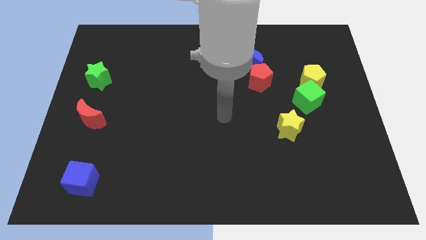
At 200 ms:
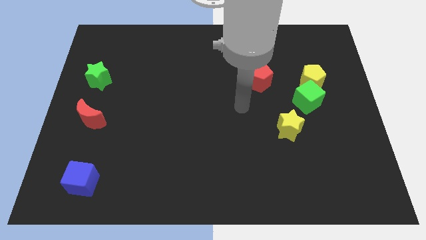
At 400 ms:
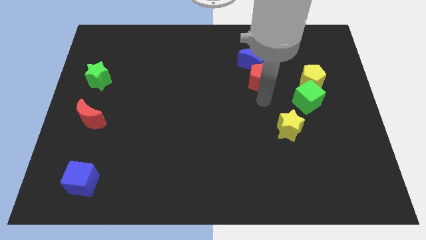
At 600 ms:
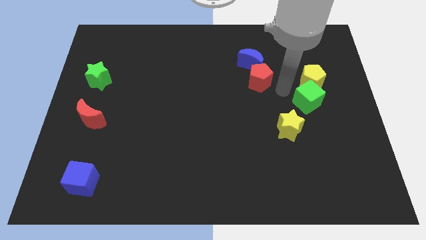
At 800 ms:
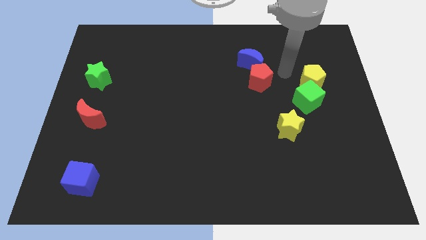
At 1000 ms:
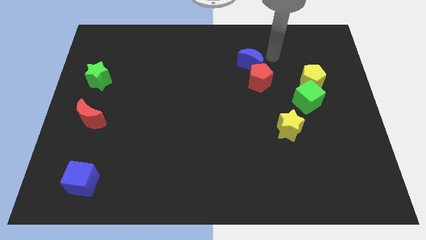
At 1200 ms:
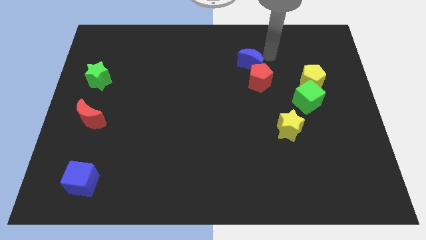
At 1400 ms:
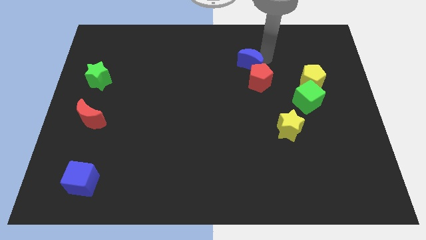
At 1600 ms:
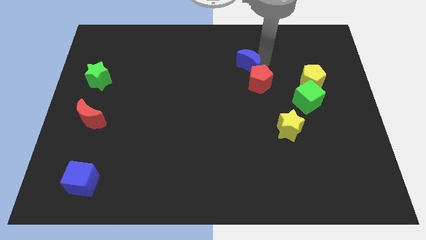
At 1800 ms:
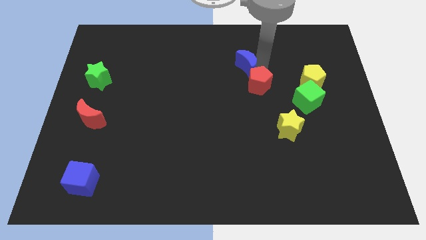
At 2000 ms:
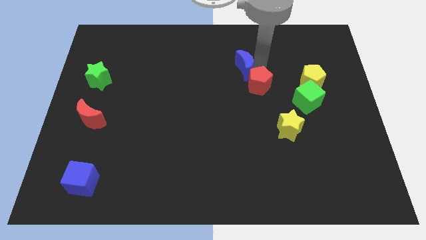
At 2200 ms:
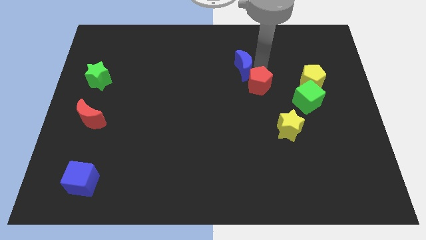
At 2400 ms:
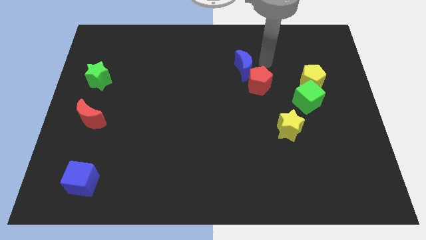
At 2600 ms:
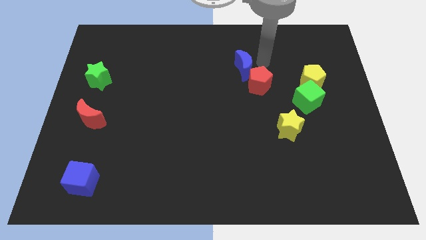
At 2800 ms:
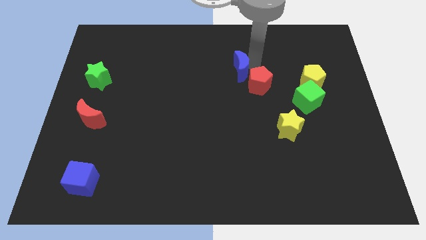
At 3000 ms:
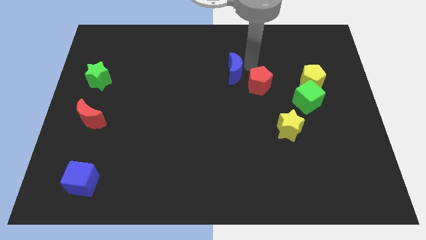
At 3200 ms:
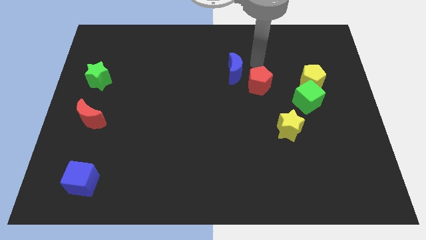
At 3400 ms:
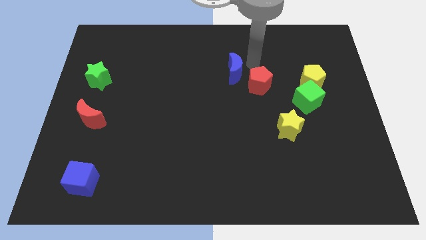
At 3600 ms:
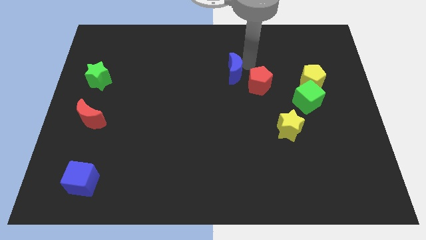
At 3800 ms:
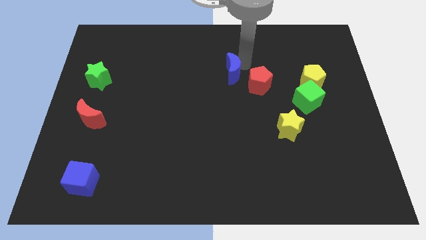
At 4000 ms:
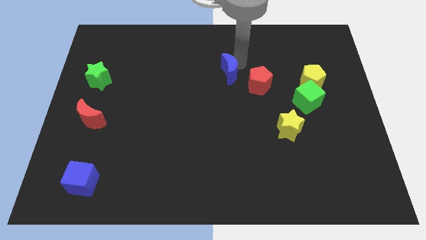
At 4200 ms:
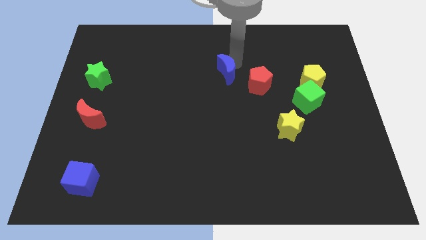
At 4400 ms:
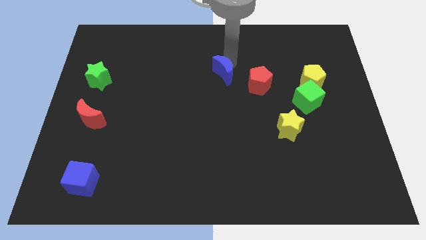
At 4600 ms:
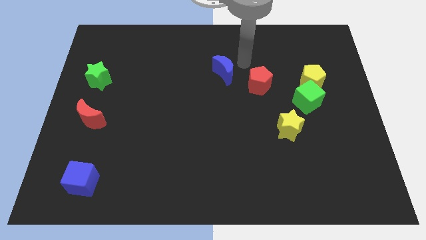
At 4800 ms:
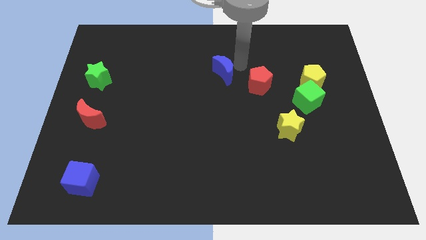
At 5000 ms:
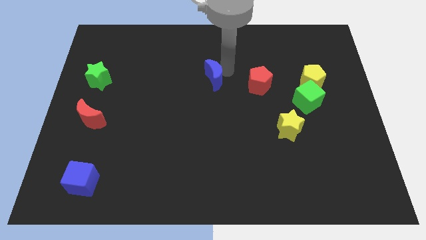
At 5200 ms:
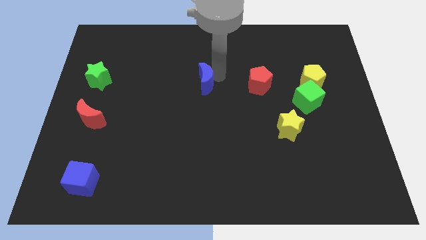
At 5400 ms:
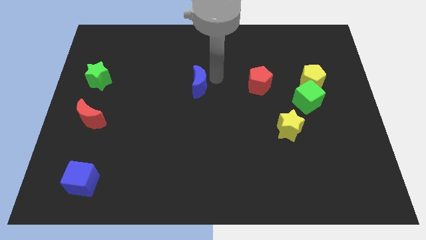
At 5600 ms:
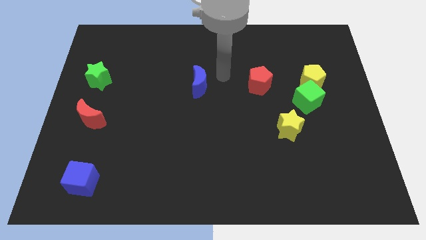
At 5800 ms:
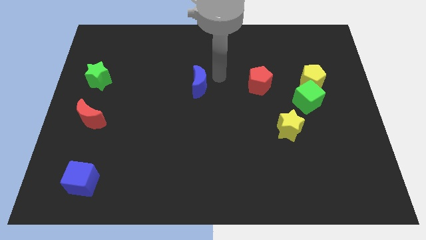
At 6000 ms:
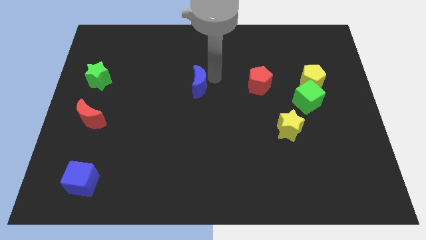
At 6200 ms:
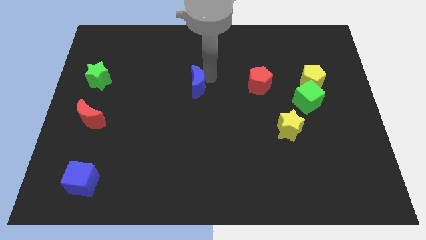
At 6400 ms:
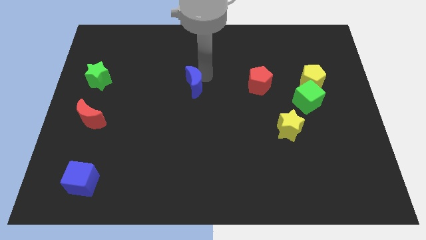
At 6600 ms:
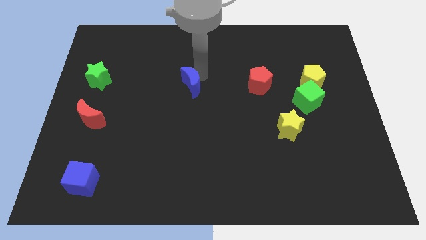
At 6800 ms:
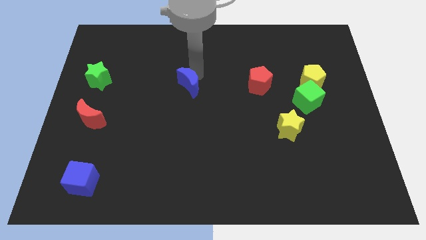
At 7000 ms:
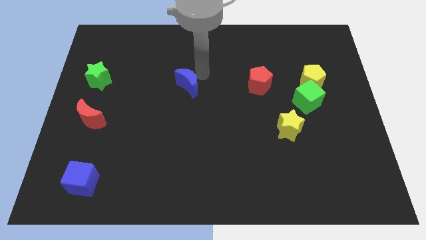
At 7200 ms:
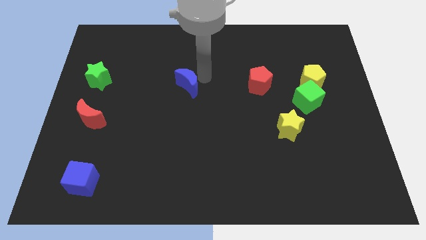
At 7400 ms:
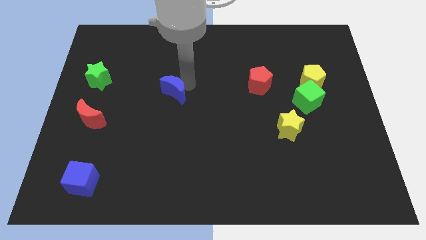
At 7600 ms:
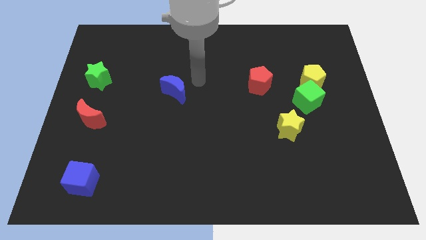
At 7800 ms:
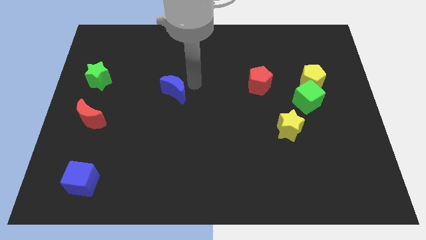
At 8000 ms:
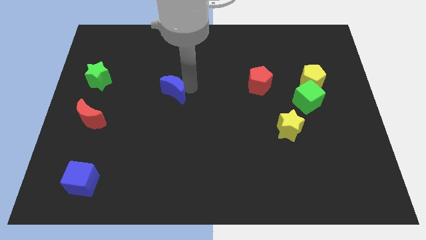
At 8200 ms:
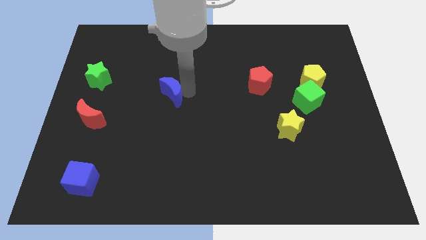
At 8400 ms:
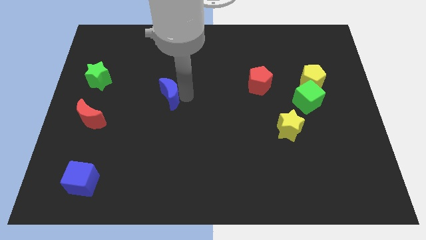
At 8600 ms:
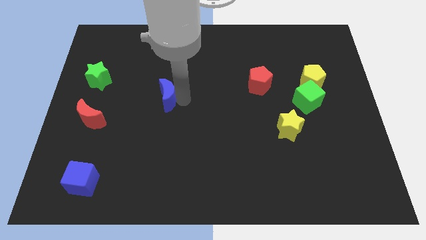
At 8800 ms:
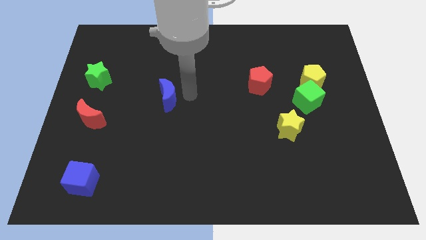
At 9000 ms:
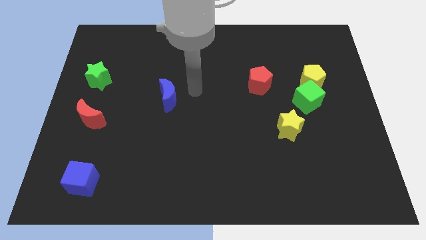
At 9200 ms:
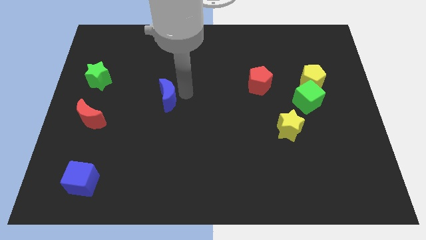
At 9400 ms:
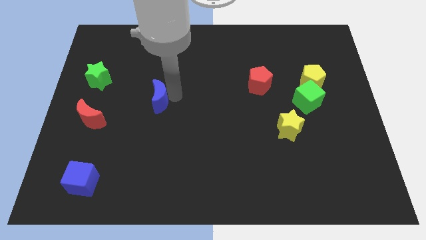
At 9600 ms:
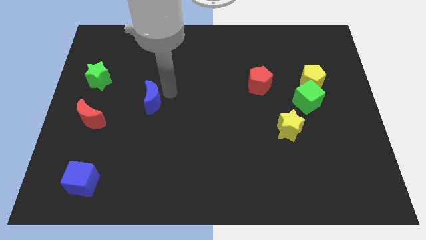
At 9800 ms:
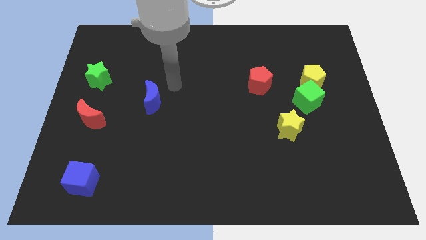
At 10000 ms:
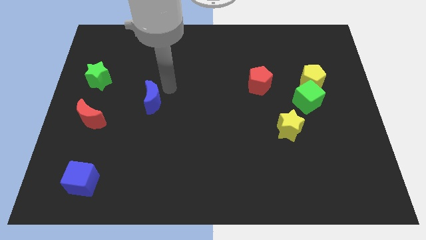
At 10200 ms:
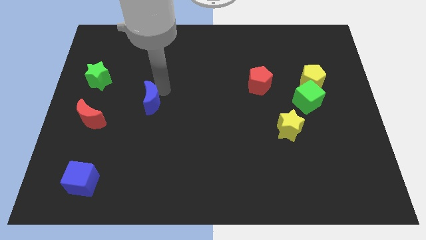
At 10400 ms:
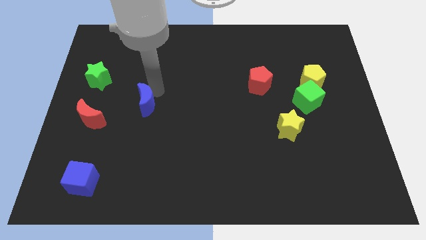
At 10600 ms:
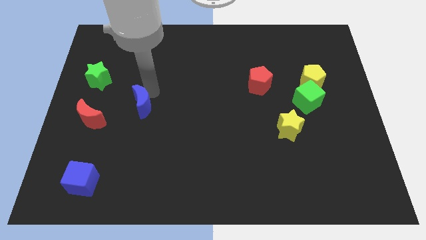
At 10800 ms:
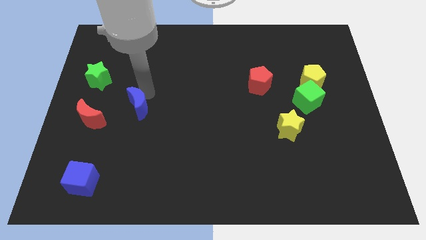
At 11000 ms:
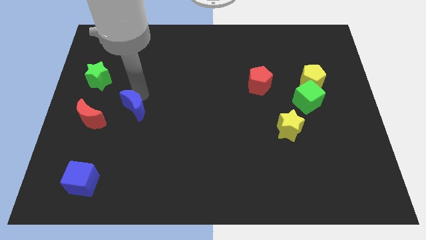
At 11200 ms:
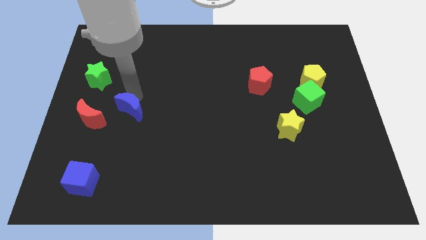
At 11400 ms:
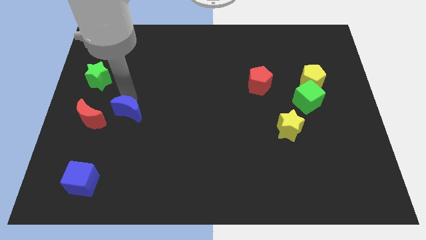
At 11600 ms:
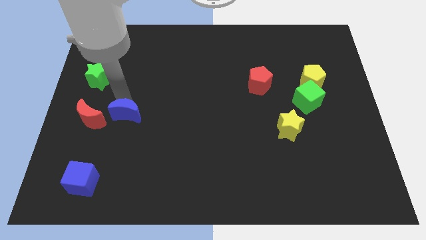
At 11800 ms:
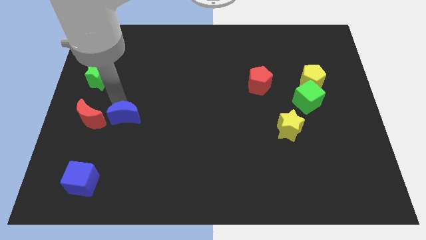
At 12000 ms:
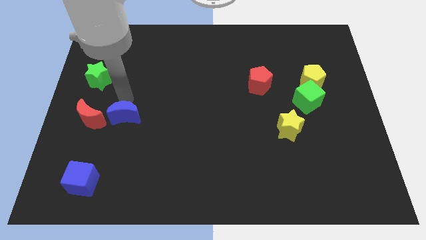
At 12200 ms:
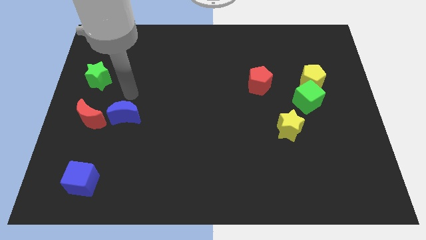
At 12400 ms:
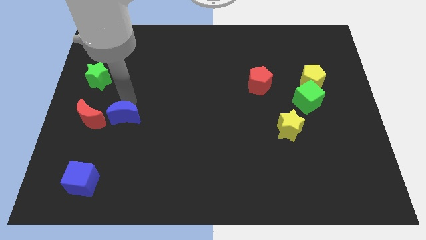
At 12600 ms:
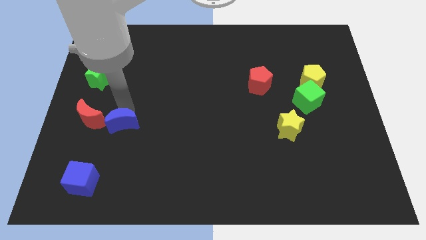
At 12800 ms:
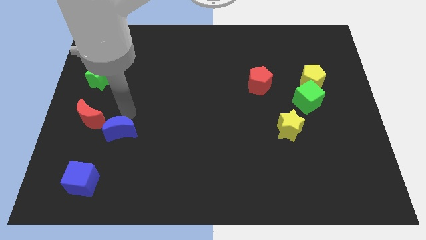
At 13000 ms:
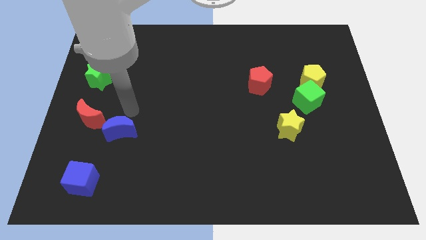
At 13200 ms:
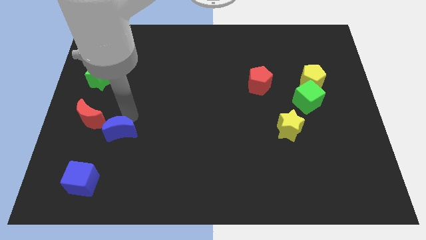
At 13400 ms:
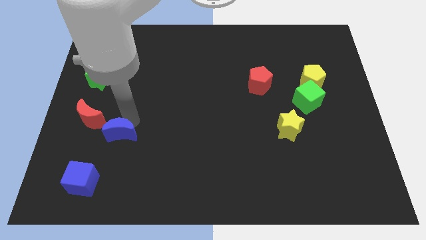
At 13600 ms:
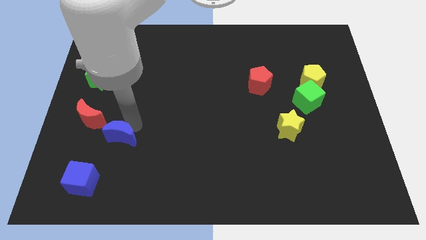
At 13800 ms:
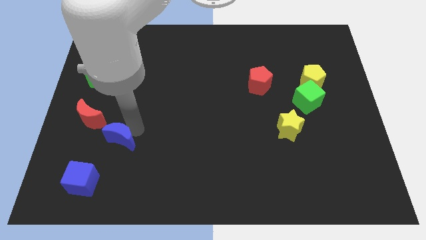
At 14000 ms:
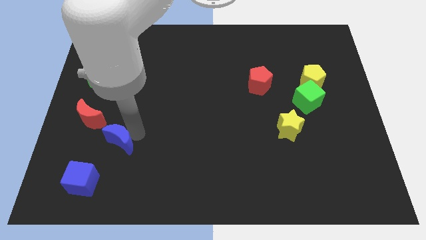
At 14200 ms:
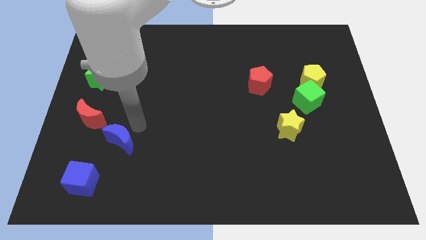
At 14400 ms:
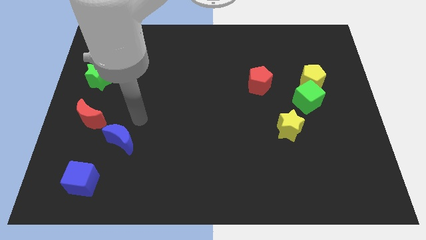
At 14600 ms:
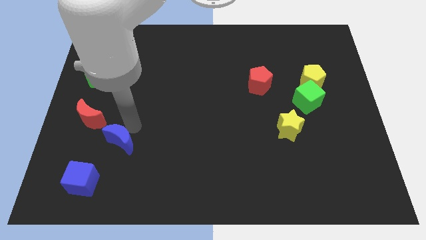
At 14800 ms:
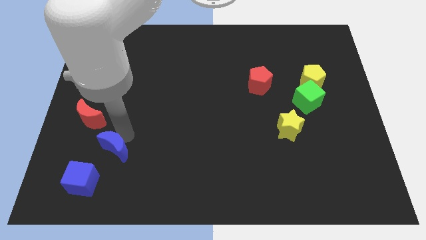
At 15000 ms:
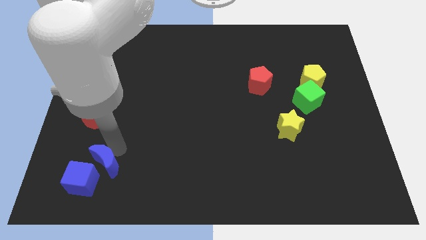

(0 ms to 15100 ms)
put the blue moon towards the blue cube
